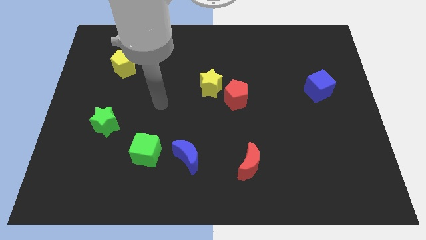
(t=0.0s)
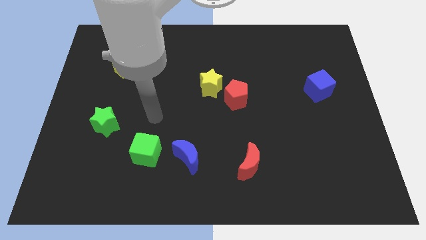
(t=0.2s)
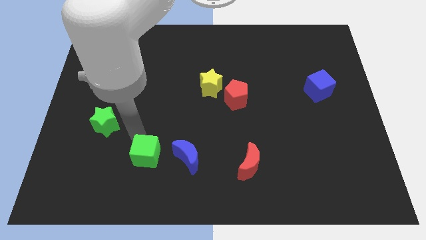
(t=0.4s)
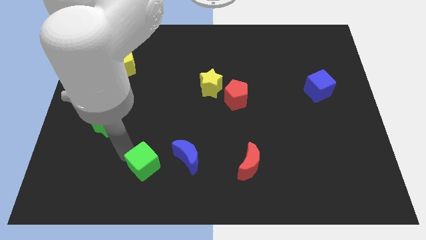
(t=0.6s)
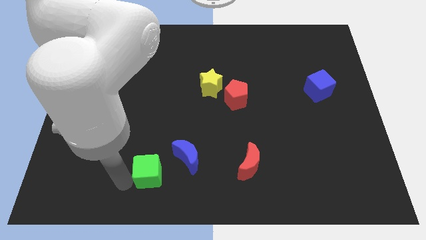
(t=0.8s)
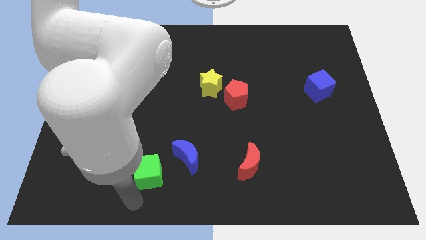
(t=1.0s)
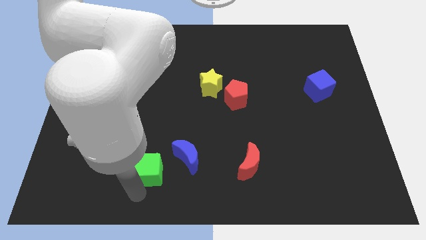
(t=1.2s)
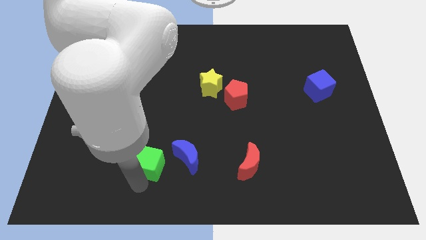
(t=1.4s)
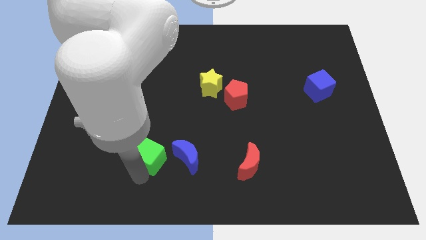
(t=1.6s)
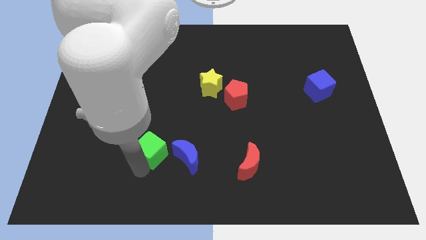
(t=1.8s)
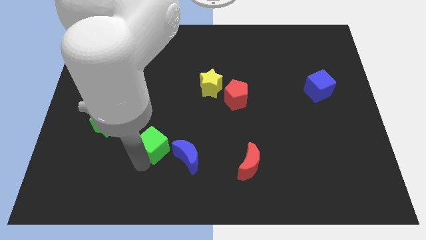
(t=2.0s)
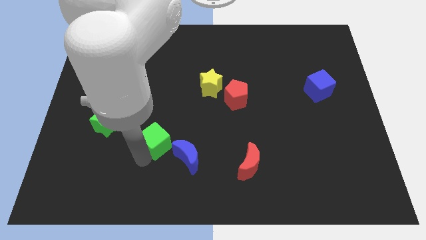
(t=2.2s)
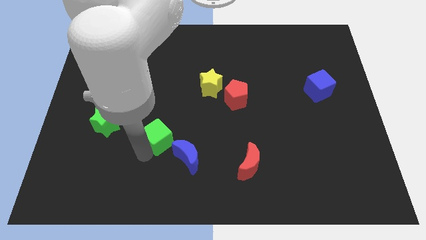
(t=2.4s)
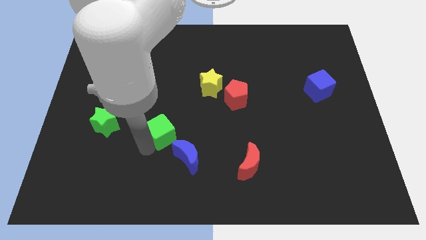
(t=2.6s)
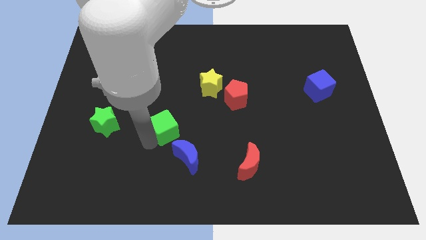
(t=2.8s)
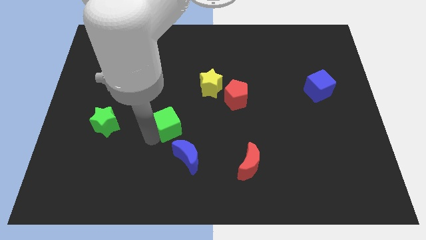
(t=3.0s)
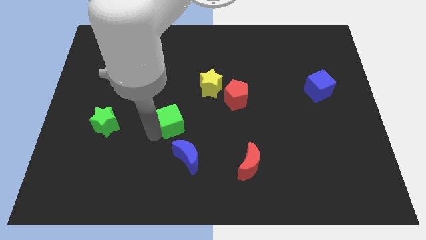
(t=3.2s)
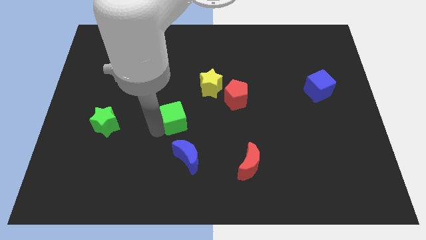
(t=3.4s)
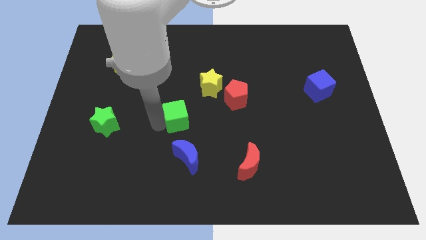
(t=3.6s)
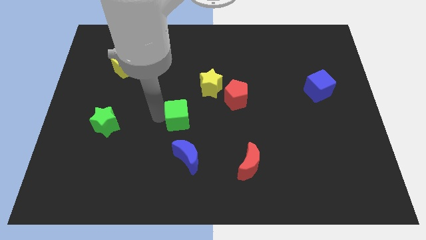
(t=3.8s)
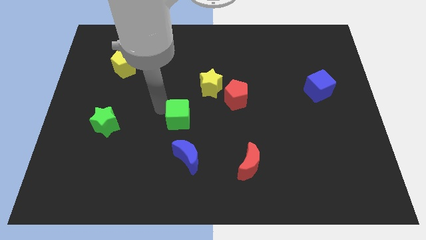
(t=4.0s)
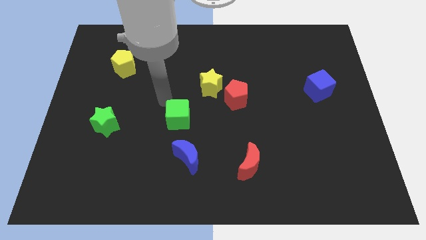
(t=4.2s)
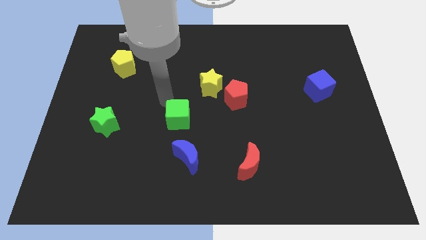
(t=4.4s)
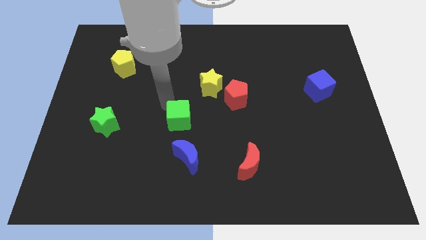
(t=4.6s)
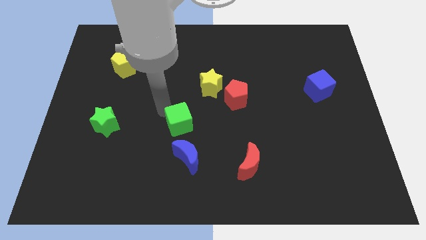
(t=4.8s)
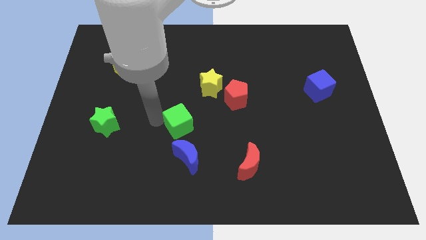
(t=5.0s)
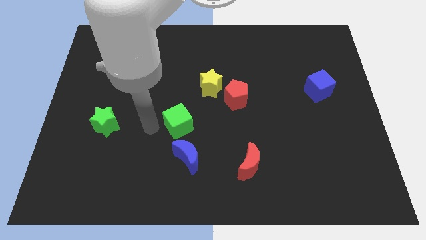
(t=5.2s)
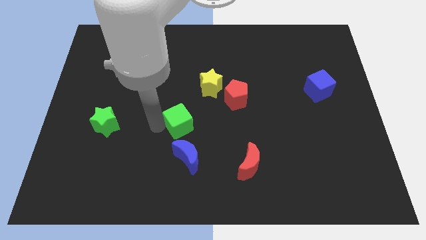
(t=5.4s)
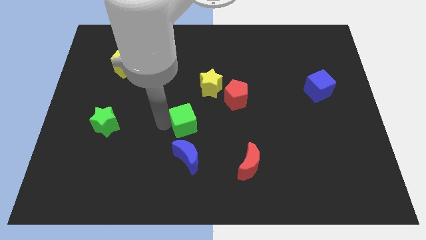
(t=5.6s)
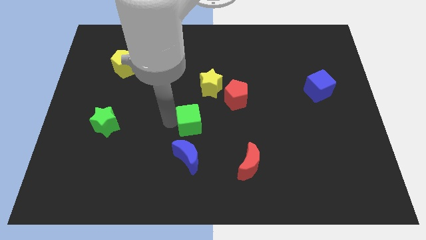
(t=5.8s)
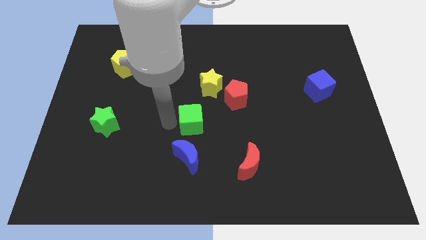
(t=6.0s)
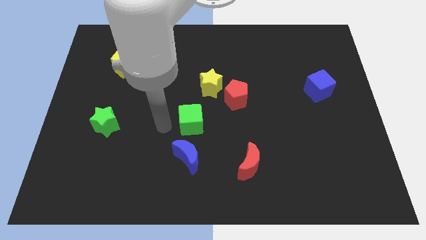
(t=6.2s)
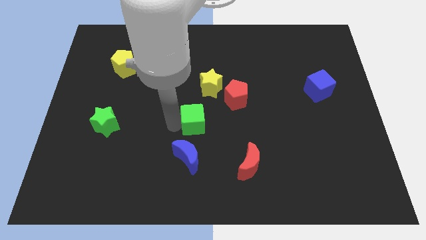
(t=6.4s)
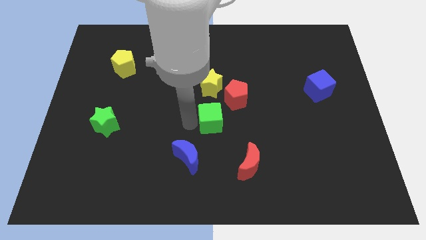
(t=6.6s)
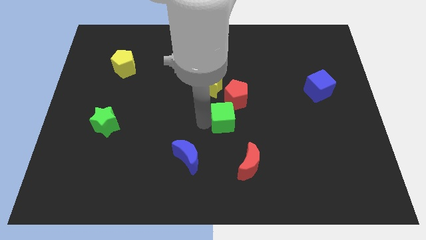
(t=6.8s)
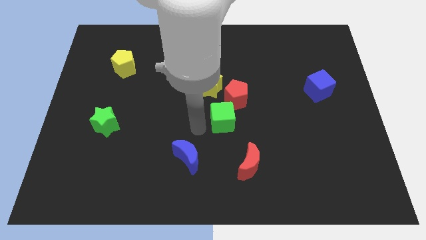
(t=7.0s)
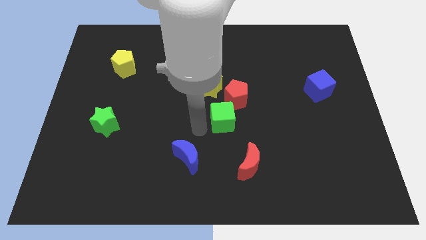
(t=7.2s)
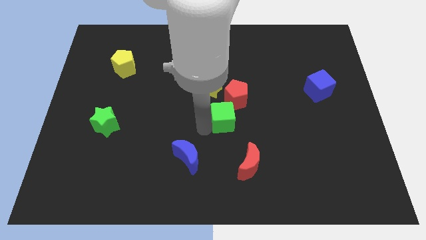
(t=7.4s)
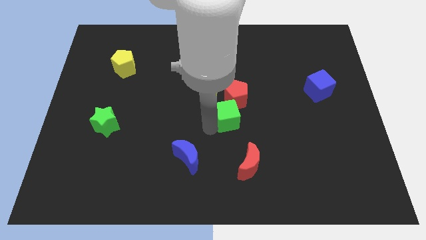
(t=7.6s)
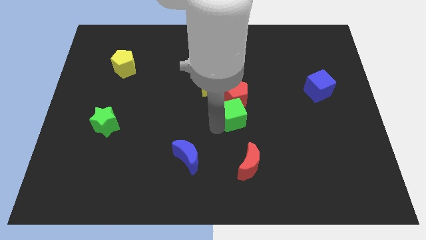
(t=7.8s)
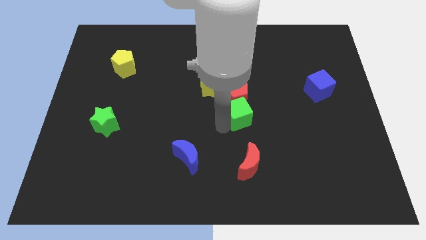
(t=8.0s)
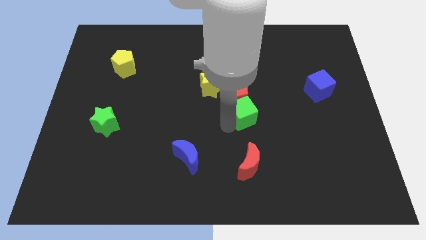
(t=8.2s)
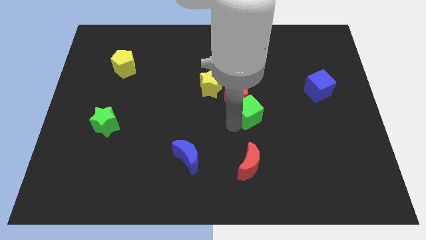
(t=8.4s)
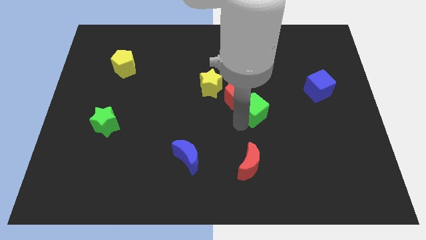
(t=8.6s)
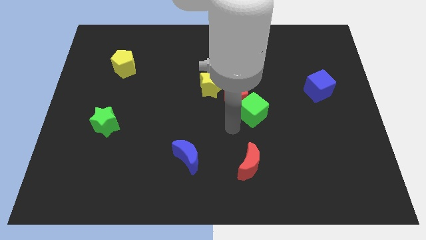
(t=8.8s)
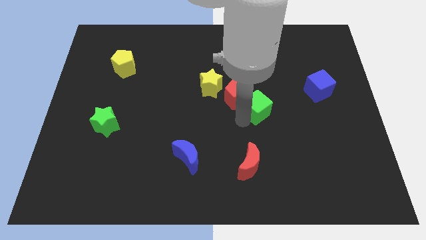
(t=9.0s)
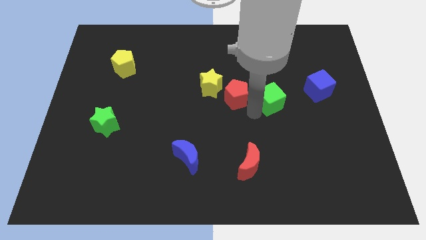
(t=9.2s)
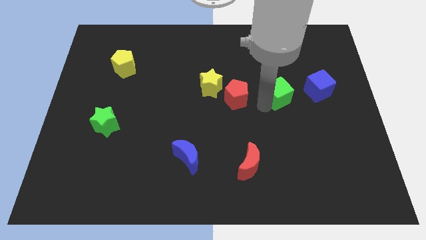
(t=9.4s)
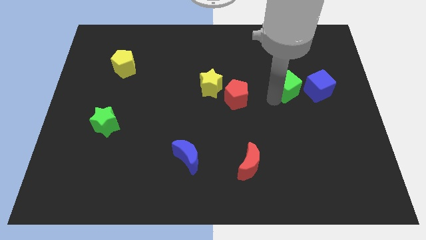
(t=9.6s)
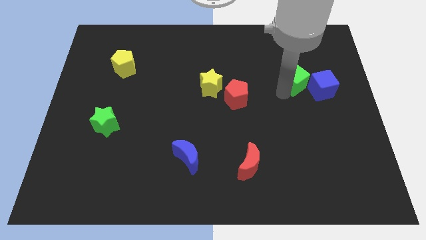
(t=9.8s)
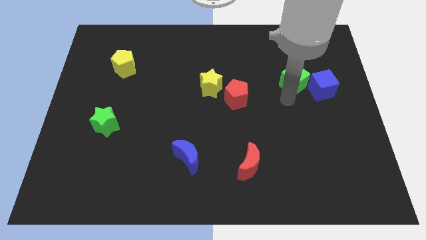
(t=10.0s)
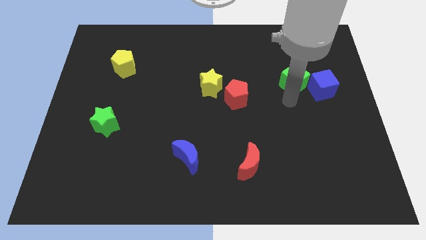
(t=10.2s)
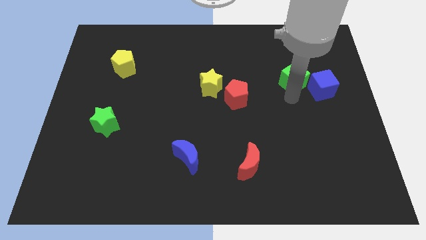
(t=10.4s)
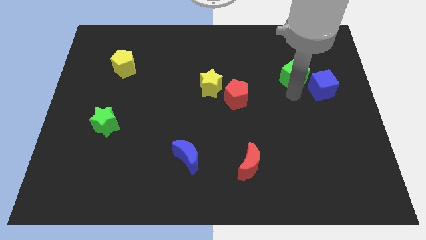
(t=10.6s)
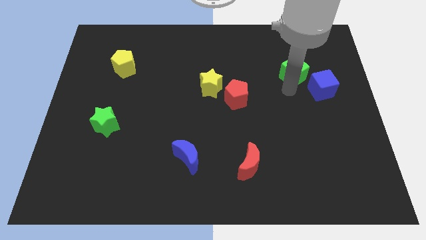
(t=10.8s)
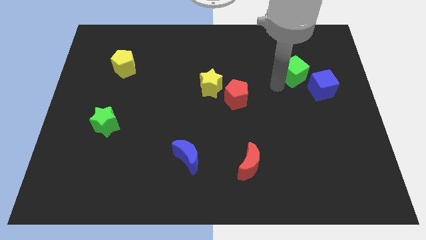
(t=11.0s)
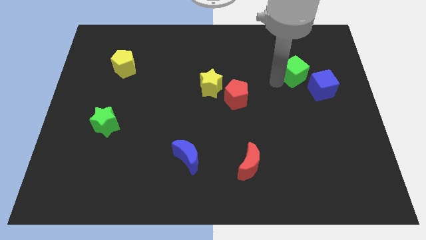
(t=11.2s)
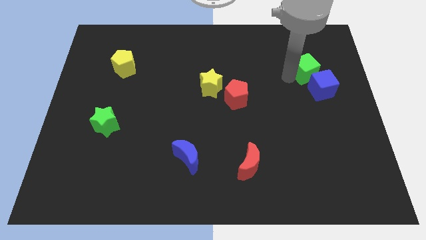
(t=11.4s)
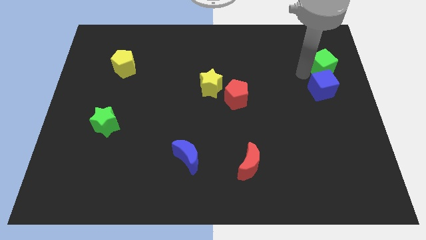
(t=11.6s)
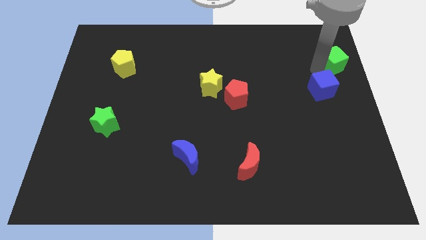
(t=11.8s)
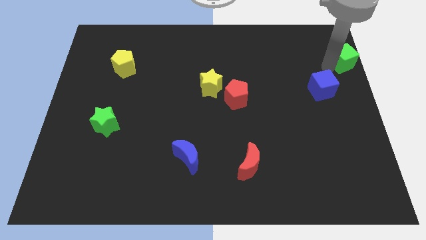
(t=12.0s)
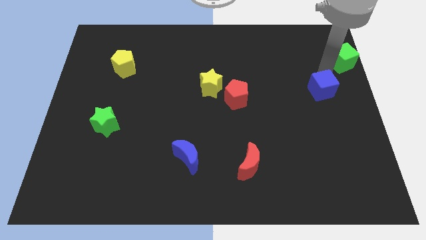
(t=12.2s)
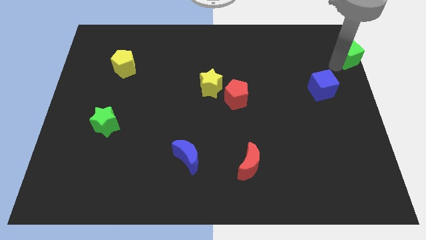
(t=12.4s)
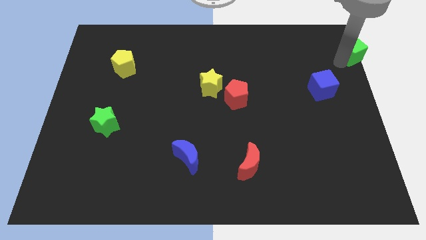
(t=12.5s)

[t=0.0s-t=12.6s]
slide the green cube to the top right of the board

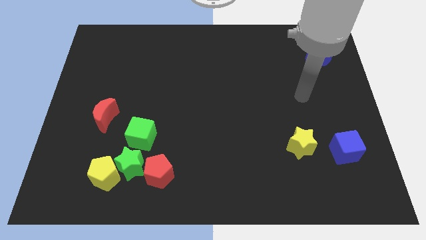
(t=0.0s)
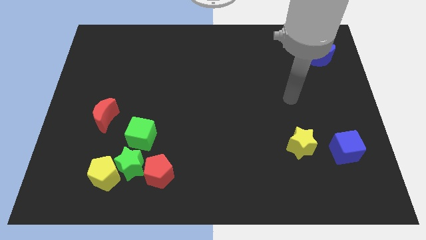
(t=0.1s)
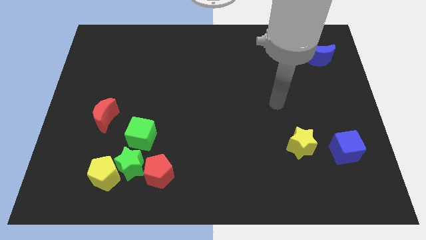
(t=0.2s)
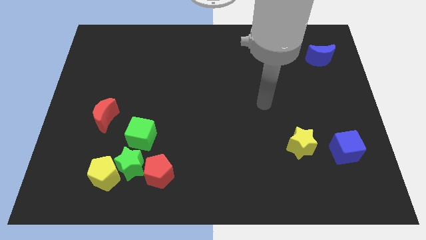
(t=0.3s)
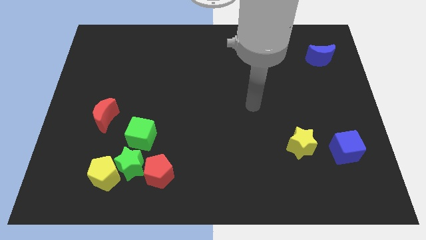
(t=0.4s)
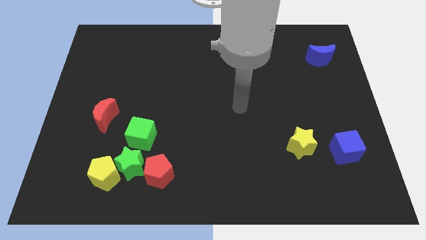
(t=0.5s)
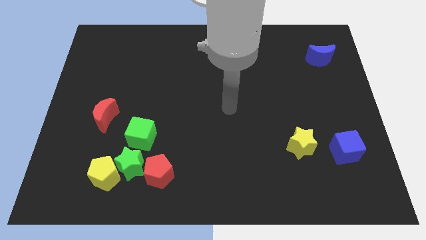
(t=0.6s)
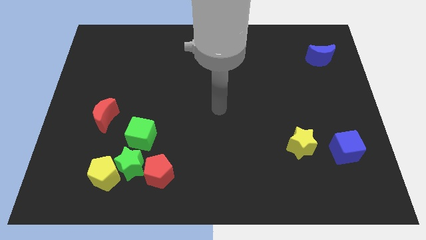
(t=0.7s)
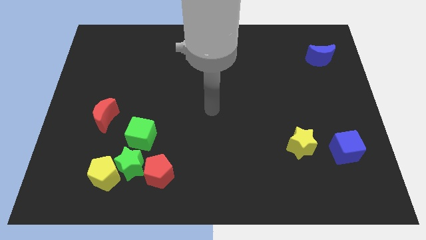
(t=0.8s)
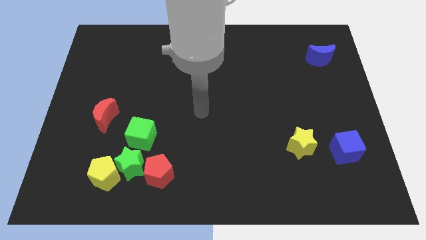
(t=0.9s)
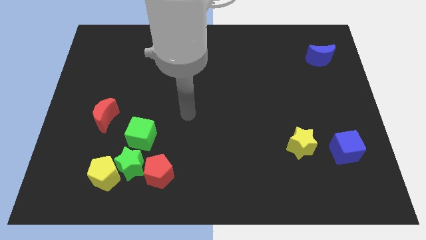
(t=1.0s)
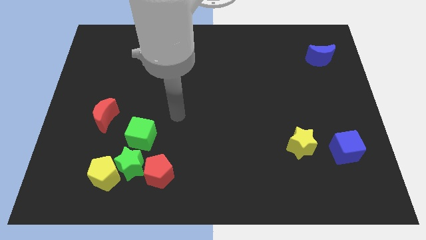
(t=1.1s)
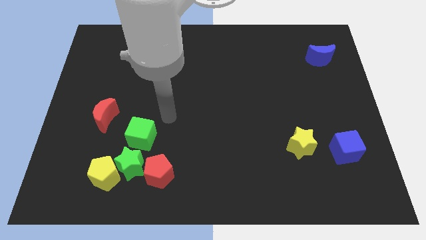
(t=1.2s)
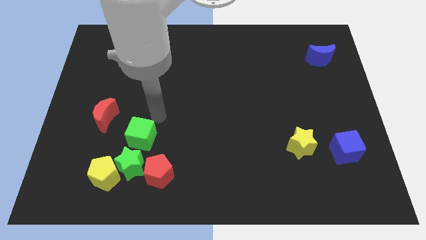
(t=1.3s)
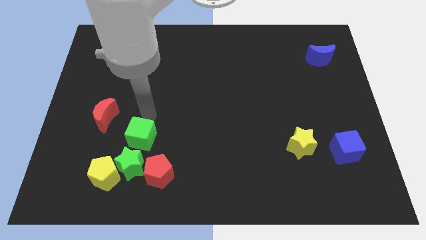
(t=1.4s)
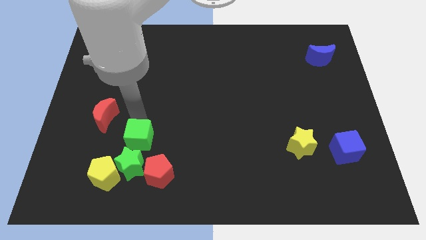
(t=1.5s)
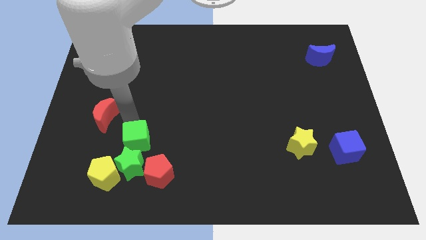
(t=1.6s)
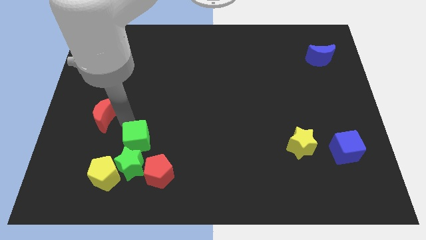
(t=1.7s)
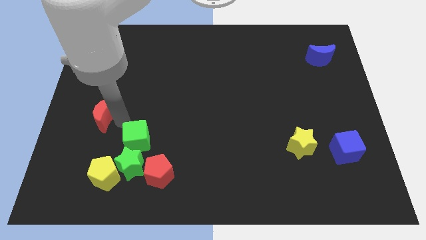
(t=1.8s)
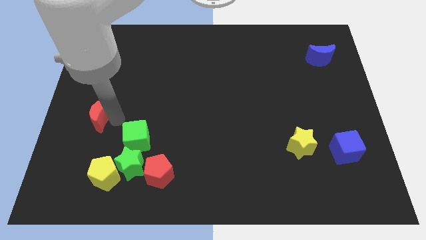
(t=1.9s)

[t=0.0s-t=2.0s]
slide the red moon to the left side of the board
